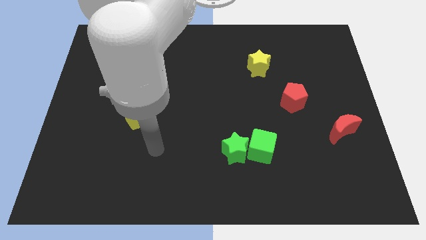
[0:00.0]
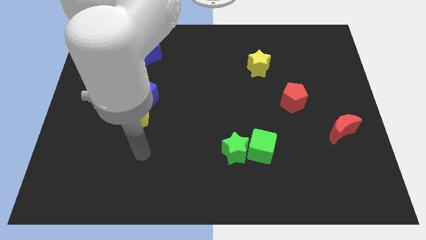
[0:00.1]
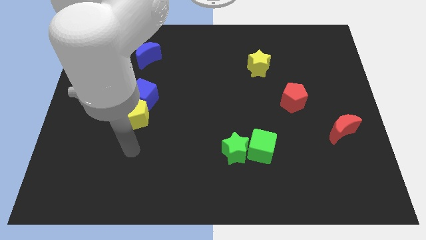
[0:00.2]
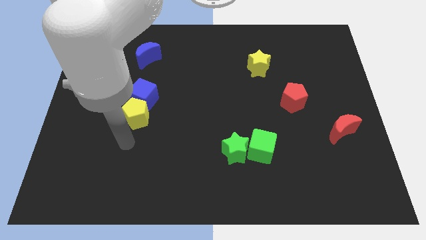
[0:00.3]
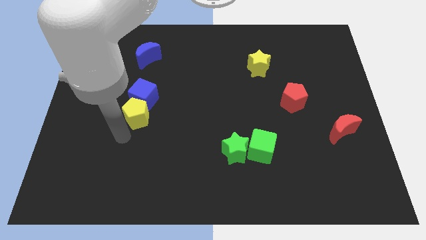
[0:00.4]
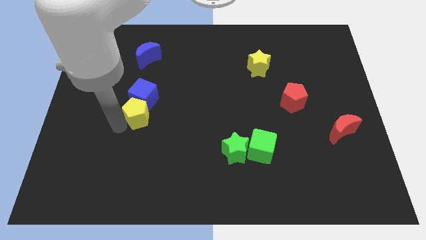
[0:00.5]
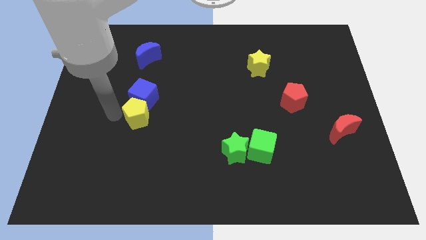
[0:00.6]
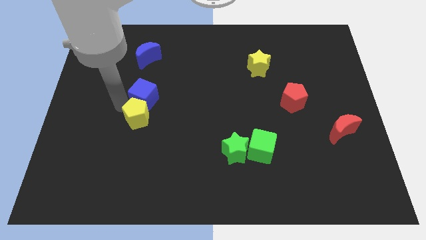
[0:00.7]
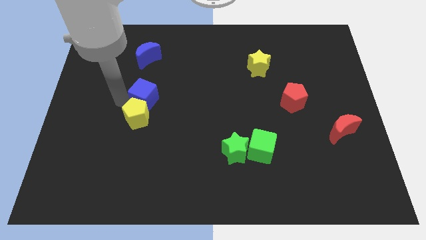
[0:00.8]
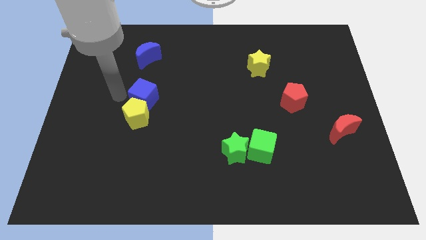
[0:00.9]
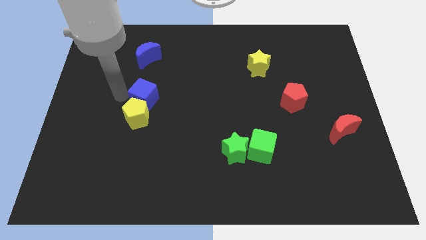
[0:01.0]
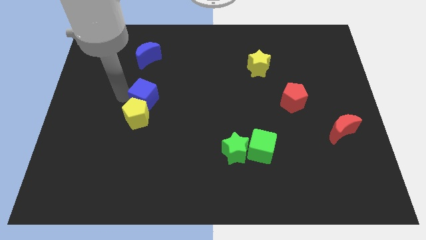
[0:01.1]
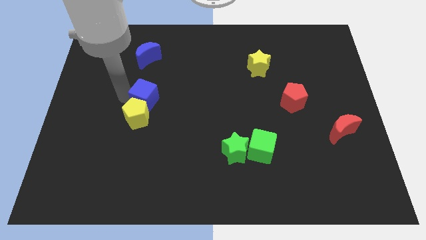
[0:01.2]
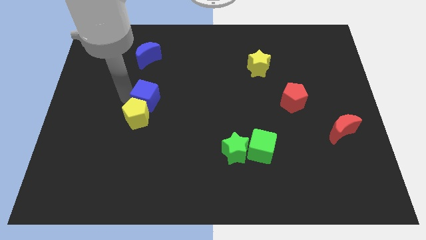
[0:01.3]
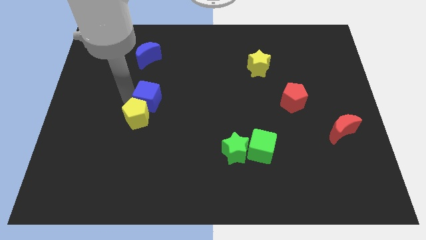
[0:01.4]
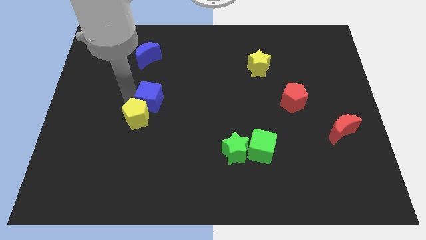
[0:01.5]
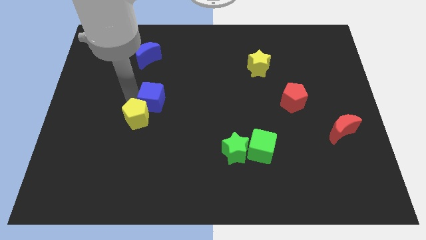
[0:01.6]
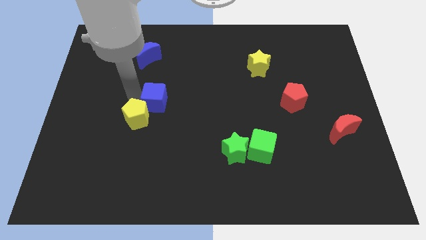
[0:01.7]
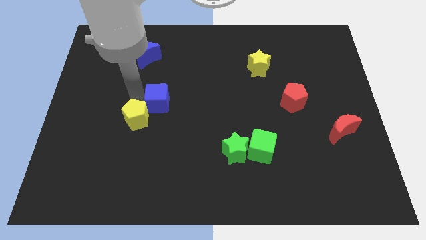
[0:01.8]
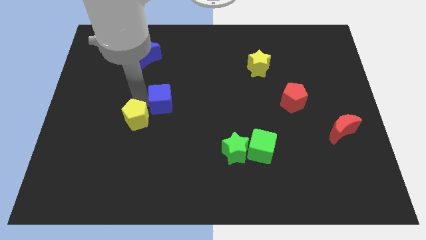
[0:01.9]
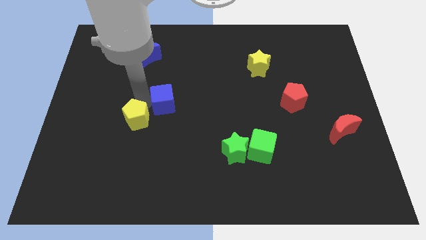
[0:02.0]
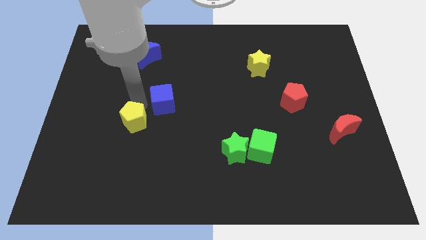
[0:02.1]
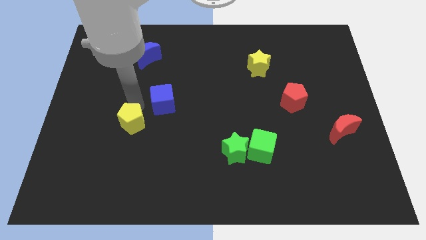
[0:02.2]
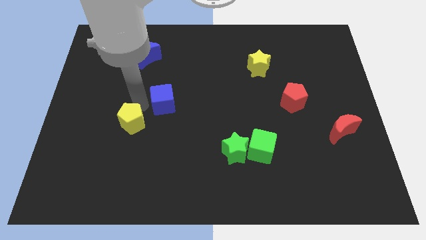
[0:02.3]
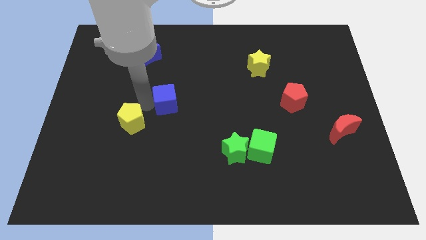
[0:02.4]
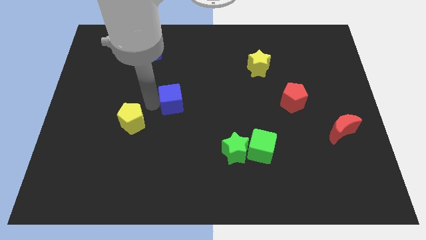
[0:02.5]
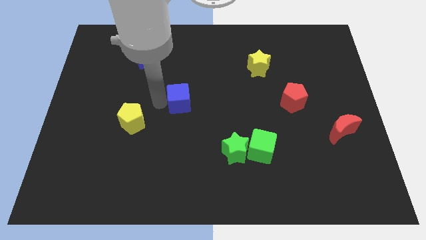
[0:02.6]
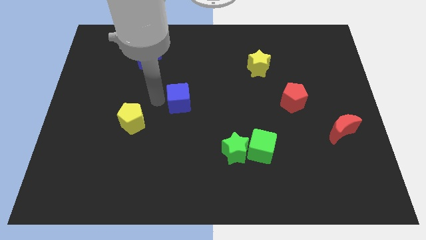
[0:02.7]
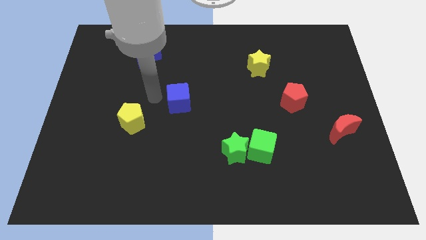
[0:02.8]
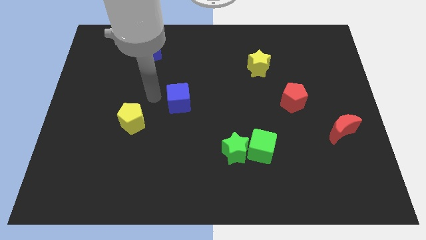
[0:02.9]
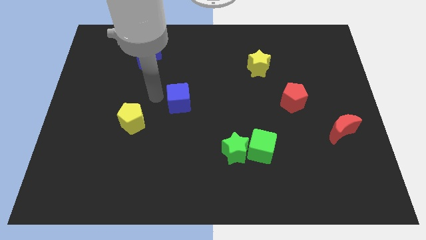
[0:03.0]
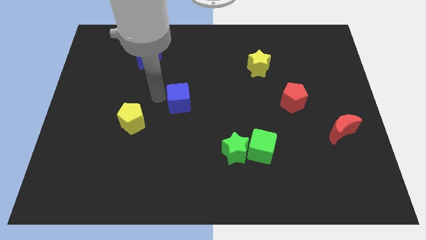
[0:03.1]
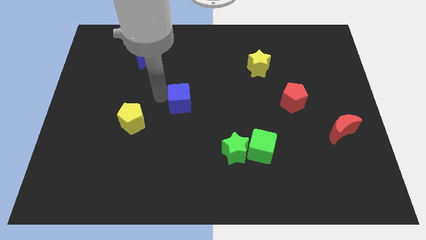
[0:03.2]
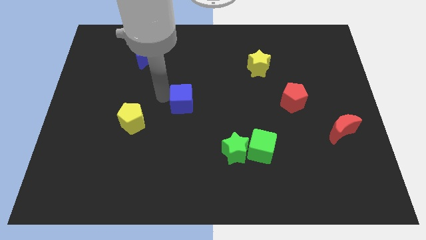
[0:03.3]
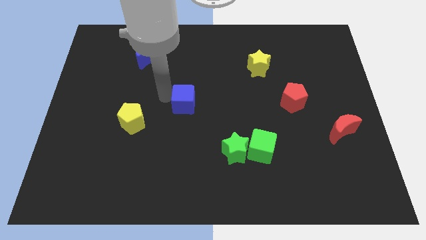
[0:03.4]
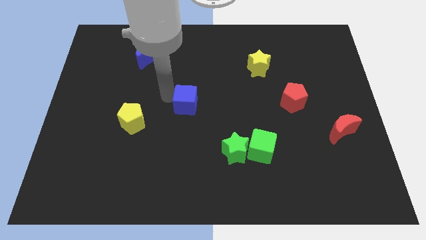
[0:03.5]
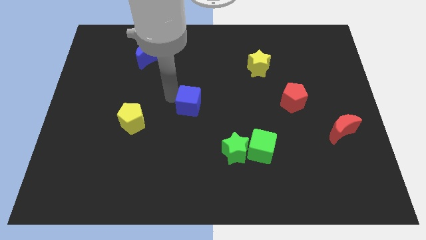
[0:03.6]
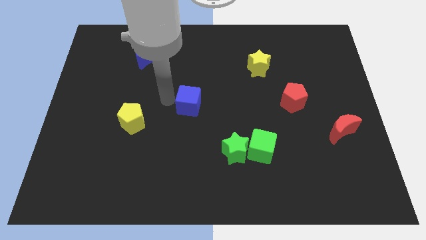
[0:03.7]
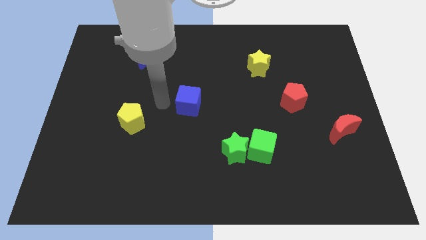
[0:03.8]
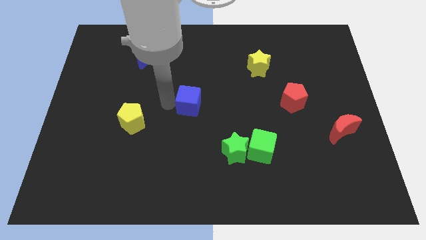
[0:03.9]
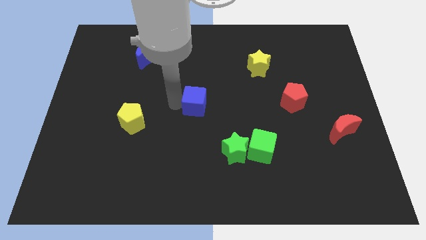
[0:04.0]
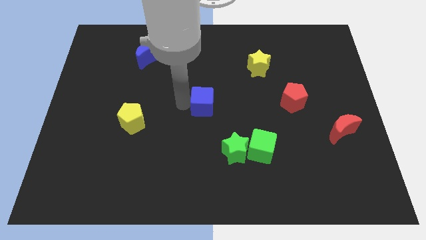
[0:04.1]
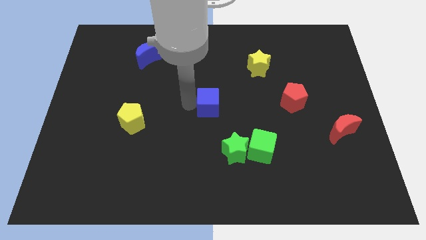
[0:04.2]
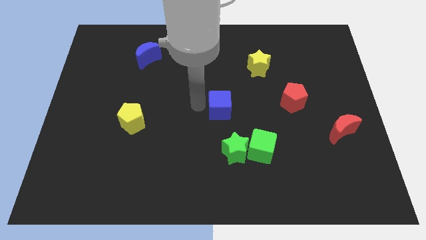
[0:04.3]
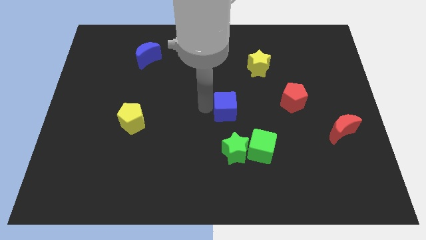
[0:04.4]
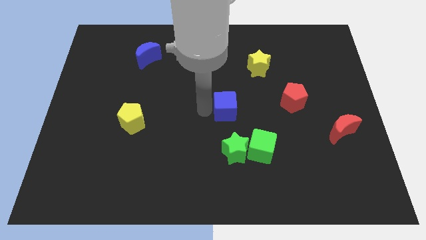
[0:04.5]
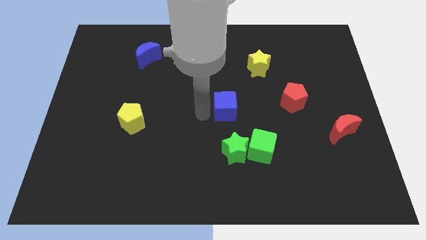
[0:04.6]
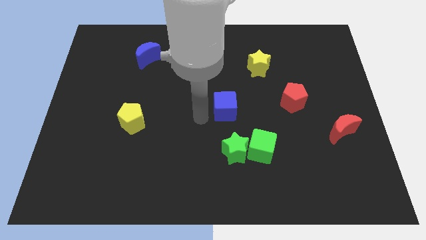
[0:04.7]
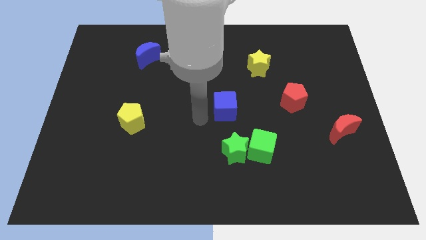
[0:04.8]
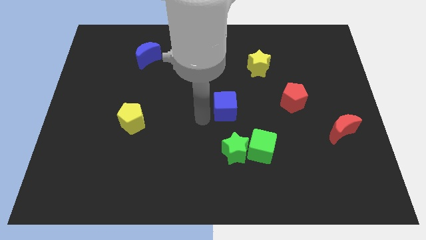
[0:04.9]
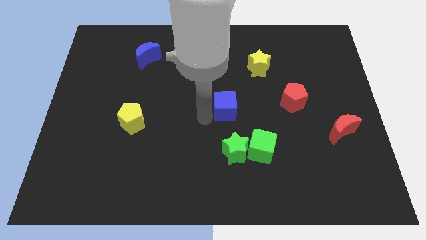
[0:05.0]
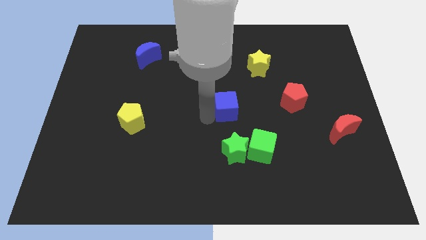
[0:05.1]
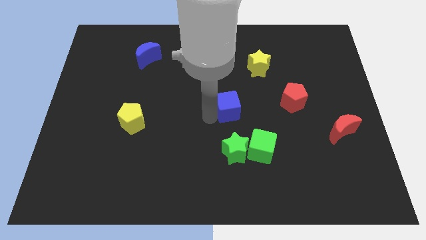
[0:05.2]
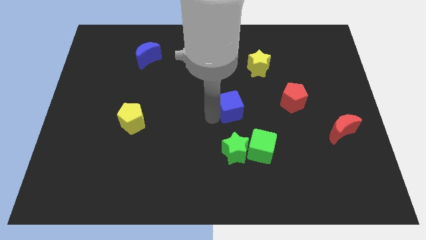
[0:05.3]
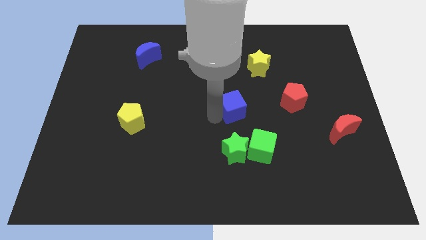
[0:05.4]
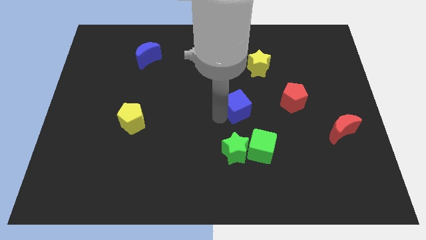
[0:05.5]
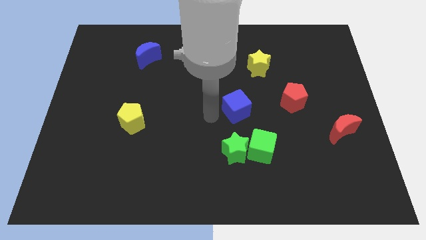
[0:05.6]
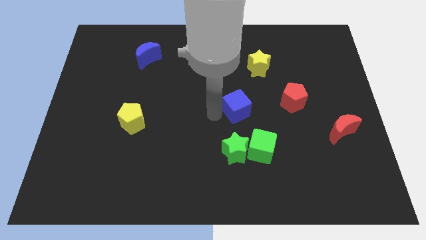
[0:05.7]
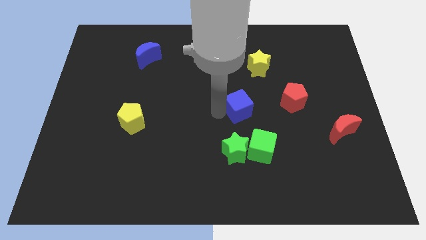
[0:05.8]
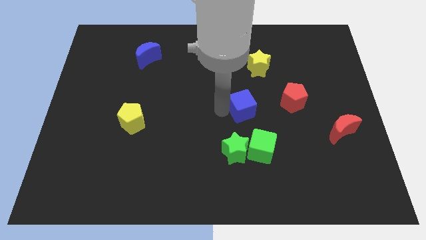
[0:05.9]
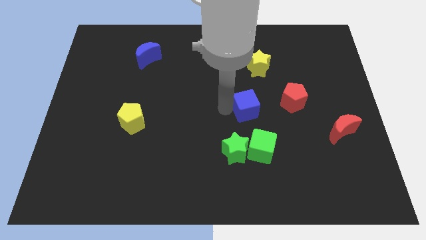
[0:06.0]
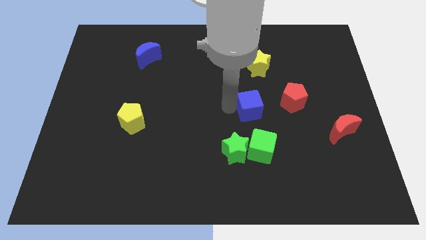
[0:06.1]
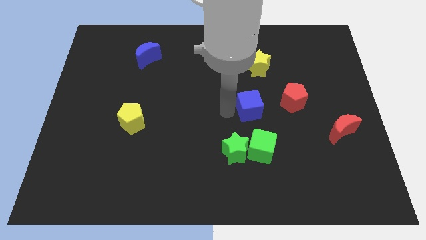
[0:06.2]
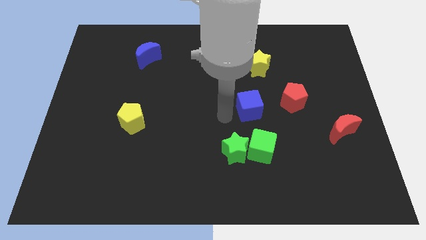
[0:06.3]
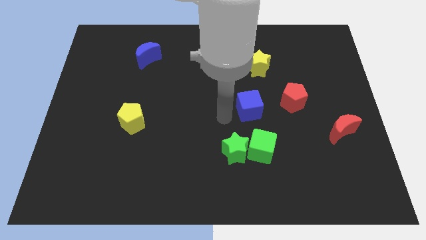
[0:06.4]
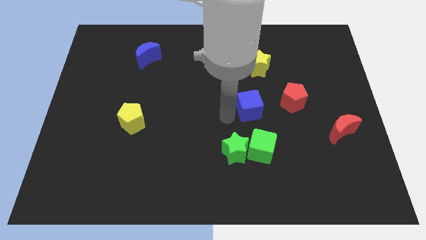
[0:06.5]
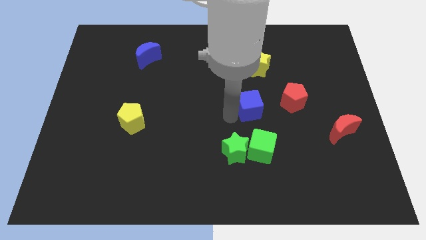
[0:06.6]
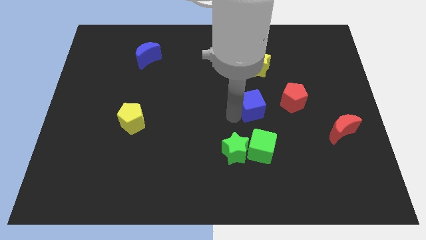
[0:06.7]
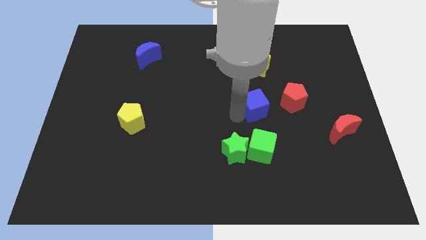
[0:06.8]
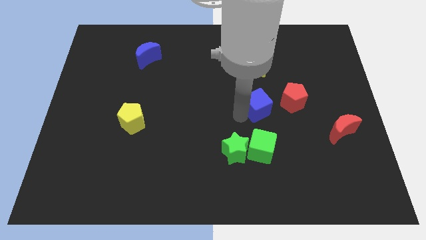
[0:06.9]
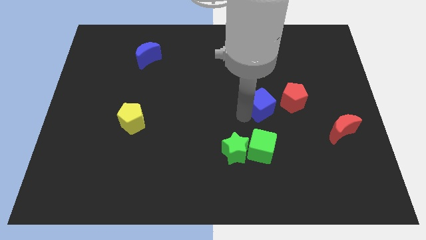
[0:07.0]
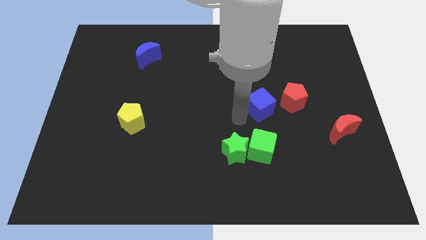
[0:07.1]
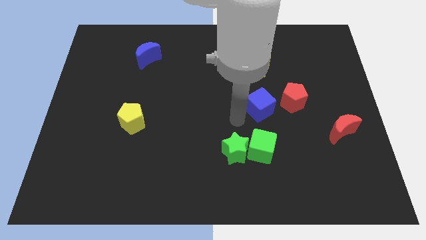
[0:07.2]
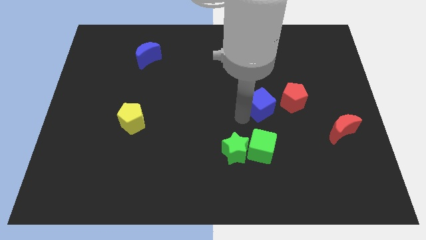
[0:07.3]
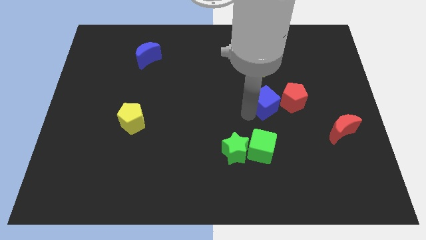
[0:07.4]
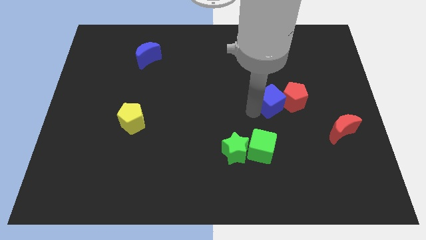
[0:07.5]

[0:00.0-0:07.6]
move the blue cube next to the red pentagon
